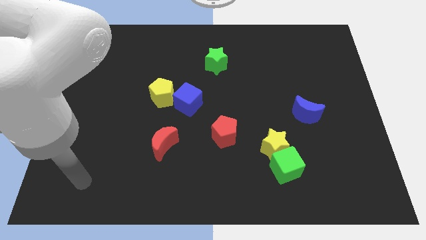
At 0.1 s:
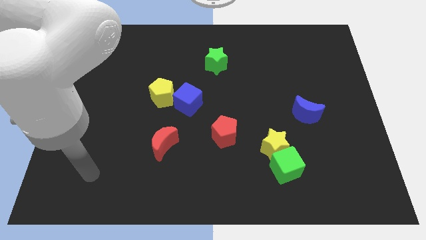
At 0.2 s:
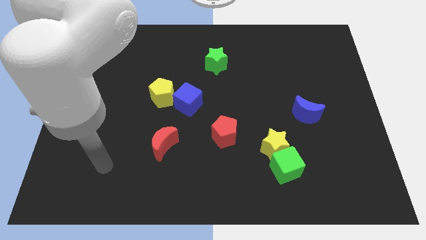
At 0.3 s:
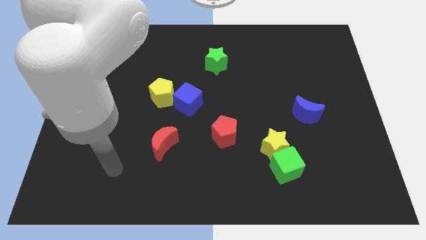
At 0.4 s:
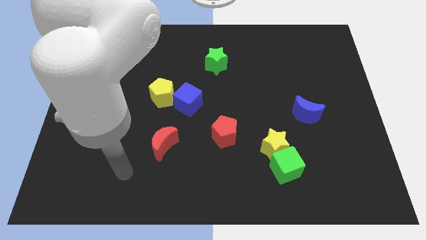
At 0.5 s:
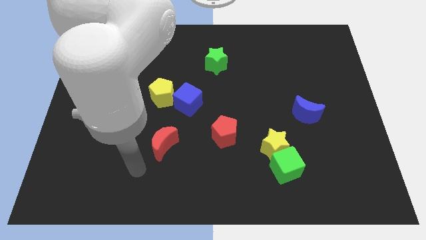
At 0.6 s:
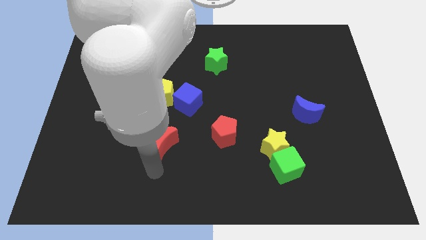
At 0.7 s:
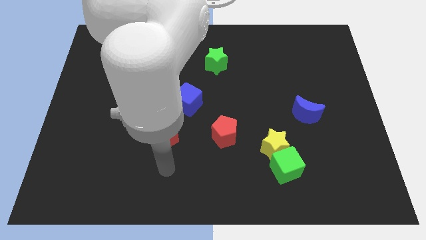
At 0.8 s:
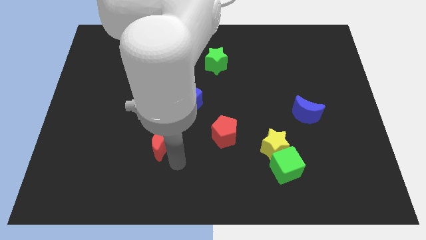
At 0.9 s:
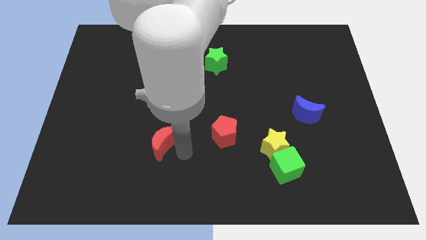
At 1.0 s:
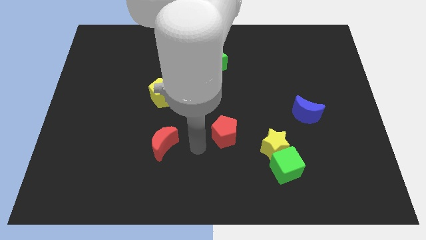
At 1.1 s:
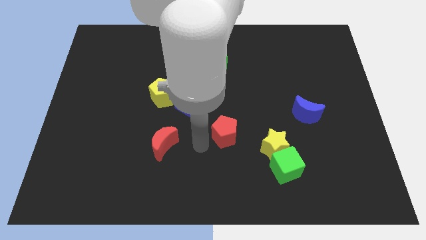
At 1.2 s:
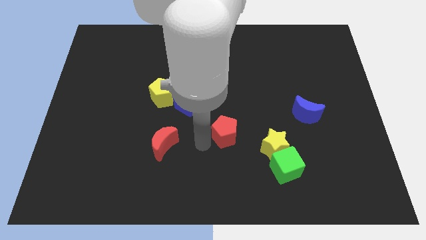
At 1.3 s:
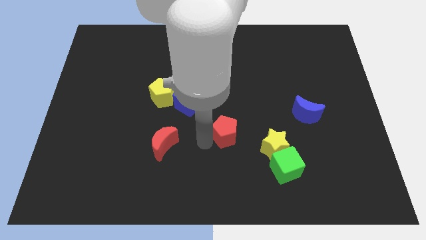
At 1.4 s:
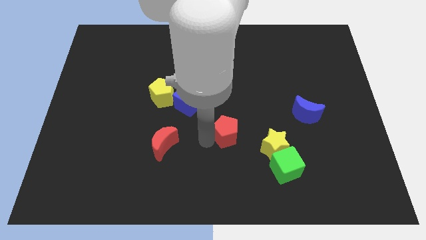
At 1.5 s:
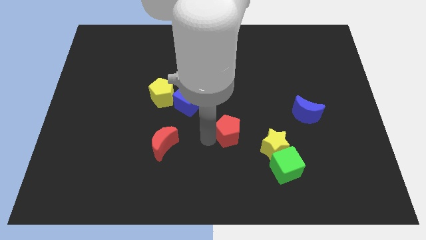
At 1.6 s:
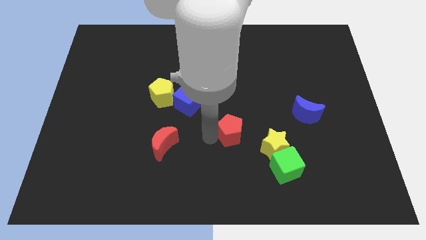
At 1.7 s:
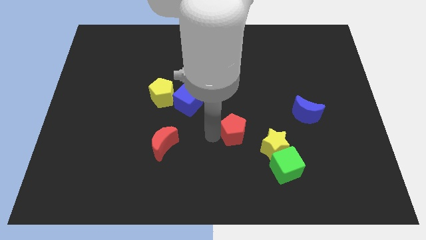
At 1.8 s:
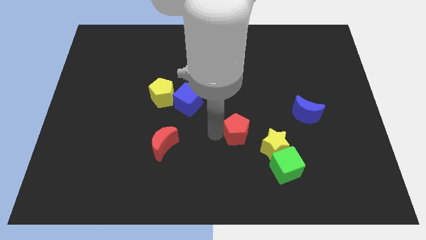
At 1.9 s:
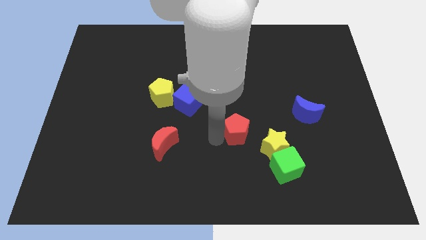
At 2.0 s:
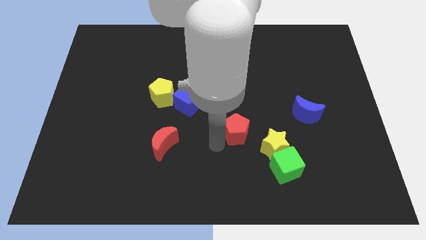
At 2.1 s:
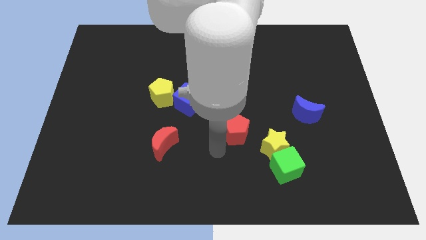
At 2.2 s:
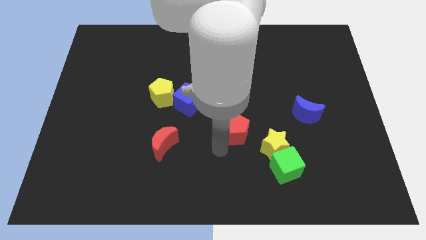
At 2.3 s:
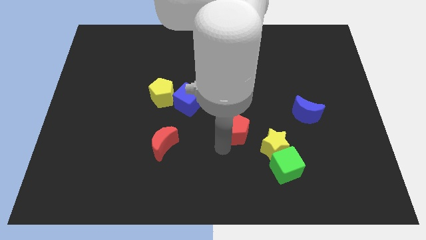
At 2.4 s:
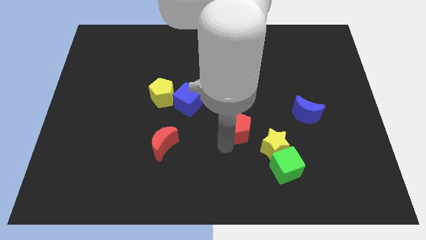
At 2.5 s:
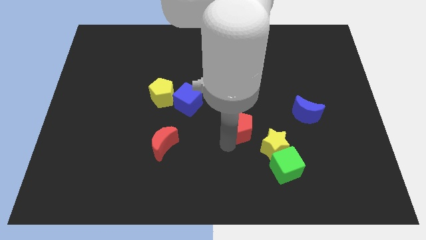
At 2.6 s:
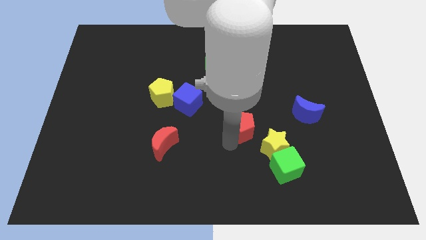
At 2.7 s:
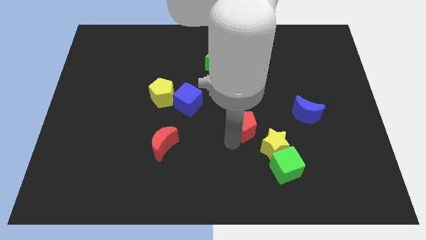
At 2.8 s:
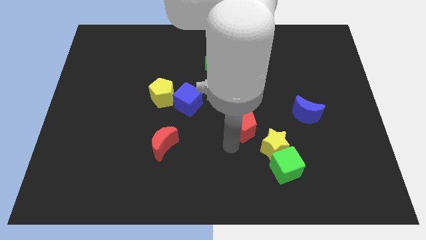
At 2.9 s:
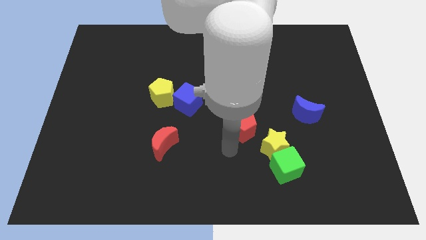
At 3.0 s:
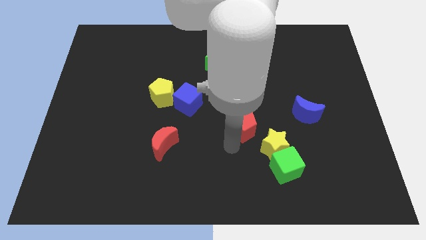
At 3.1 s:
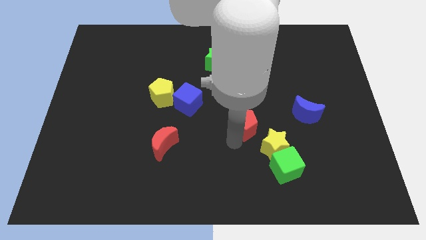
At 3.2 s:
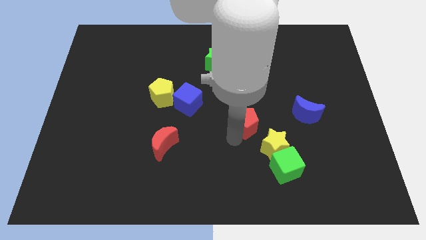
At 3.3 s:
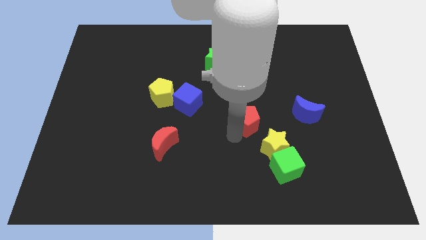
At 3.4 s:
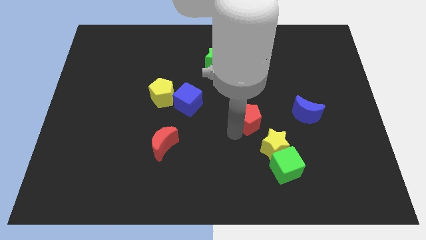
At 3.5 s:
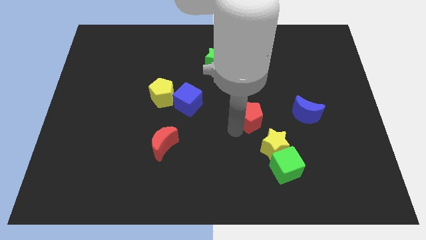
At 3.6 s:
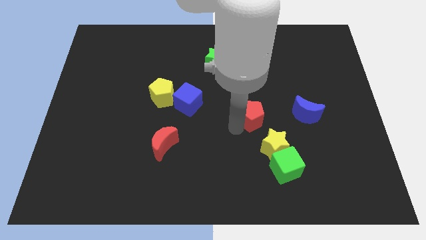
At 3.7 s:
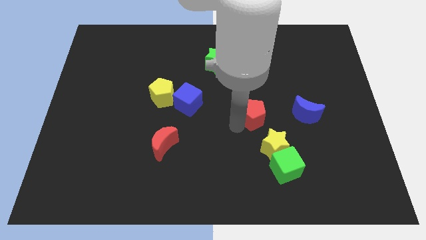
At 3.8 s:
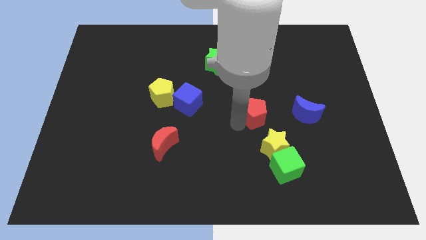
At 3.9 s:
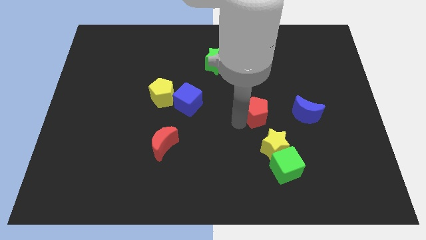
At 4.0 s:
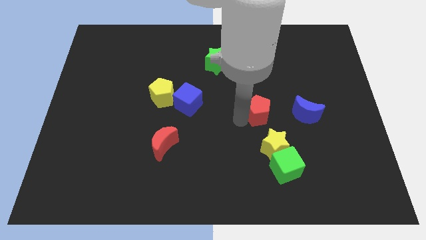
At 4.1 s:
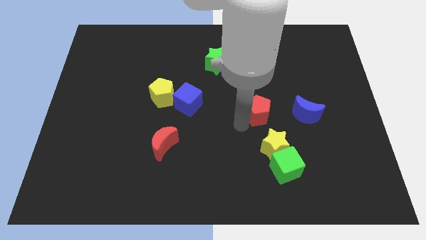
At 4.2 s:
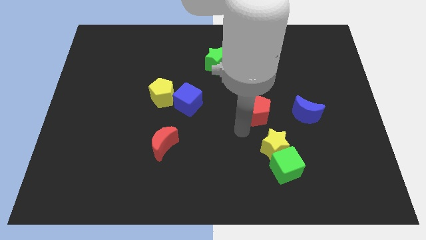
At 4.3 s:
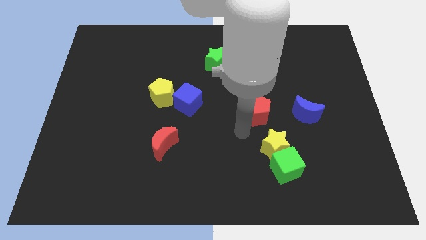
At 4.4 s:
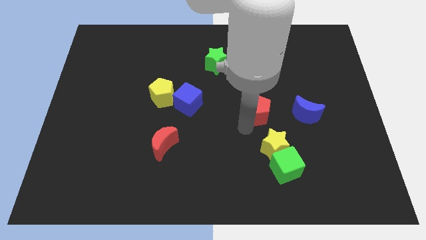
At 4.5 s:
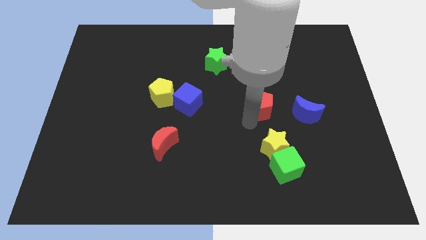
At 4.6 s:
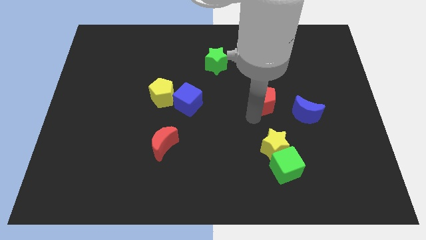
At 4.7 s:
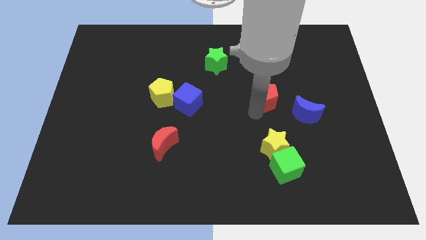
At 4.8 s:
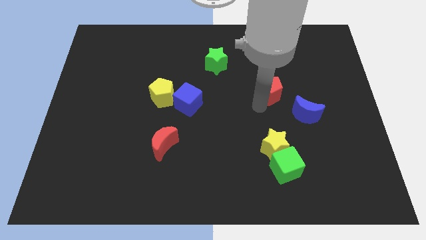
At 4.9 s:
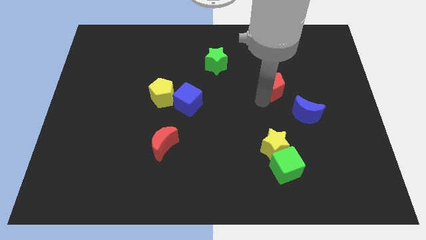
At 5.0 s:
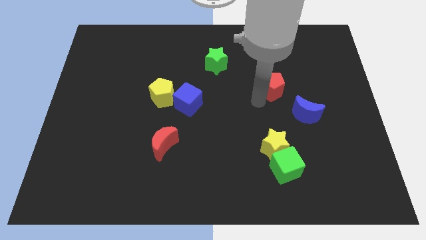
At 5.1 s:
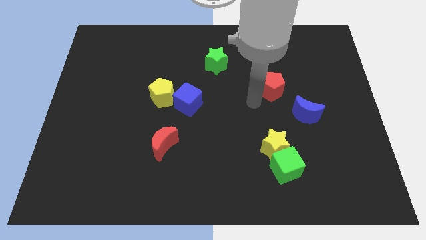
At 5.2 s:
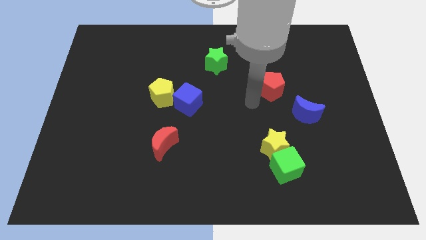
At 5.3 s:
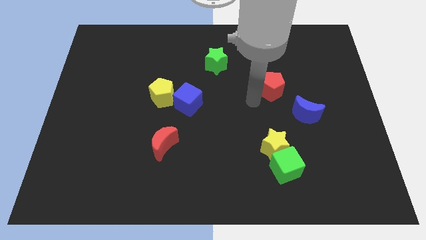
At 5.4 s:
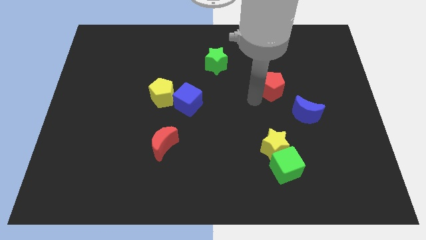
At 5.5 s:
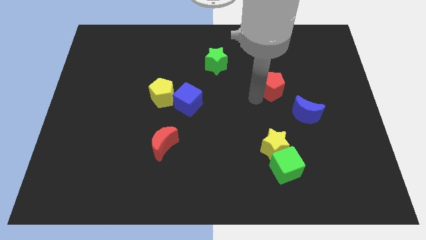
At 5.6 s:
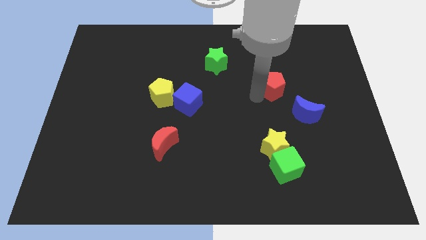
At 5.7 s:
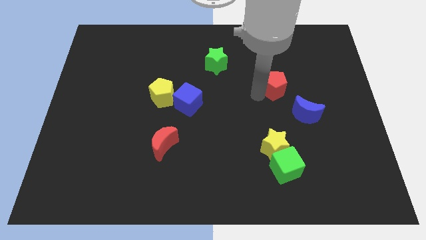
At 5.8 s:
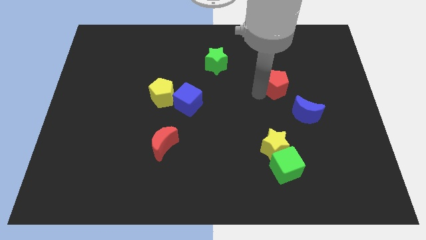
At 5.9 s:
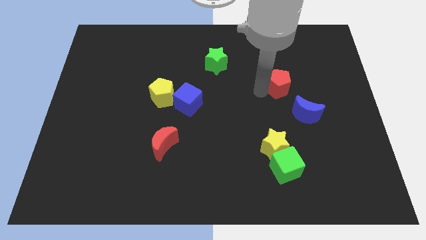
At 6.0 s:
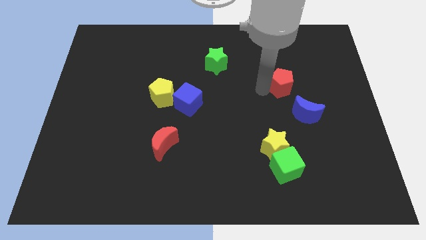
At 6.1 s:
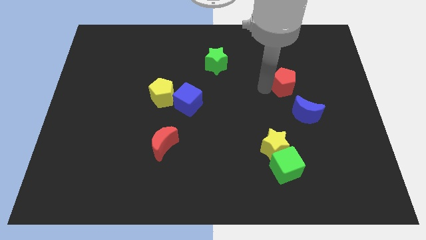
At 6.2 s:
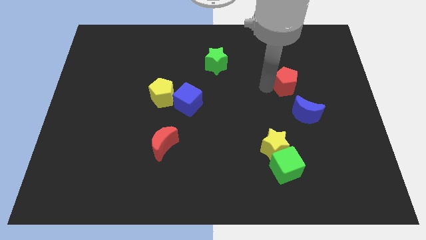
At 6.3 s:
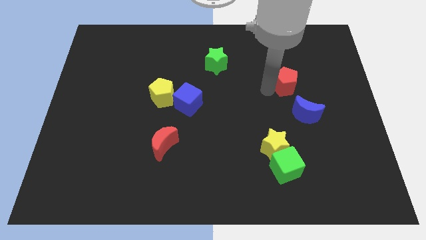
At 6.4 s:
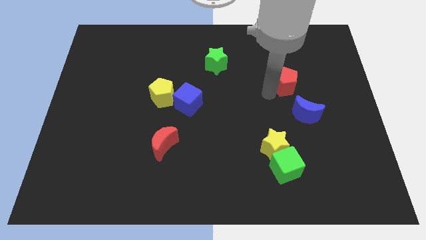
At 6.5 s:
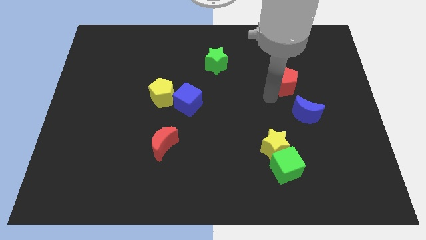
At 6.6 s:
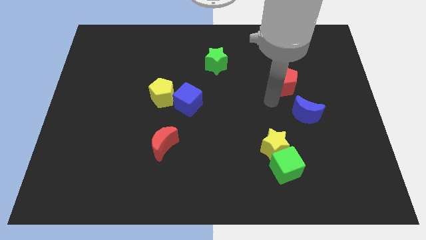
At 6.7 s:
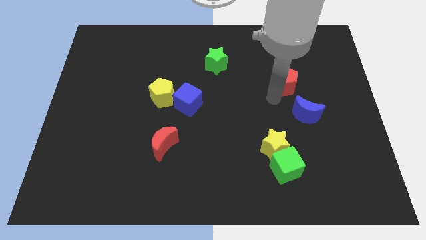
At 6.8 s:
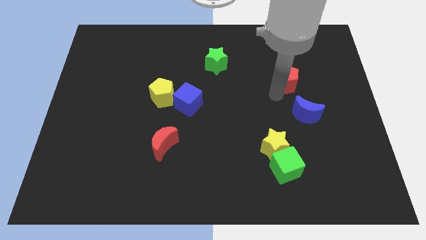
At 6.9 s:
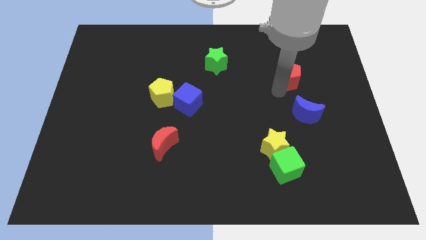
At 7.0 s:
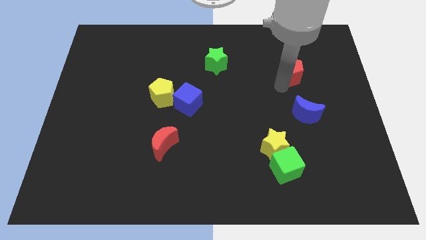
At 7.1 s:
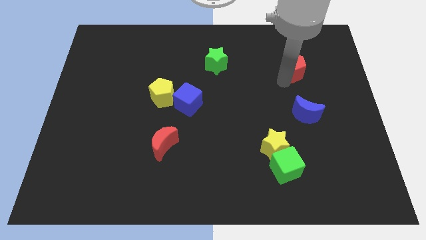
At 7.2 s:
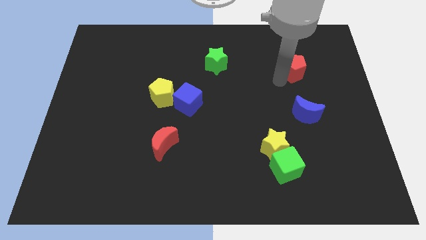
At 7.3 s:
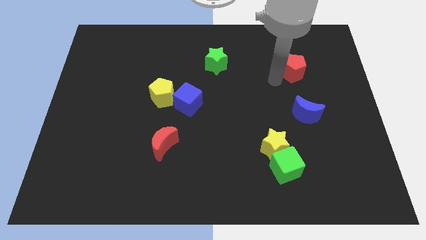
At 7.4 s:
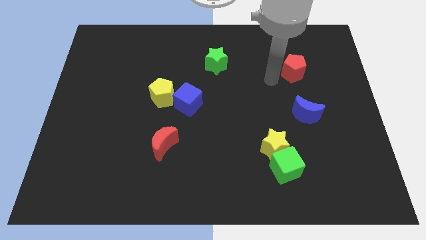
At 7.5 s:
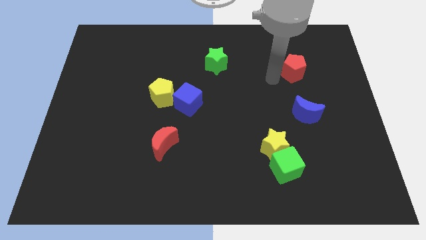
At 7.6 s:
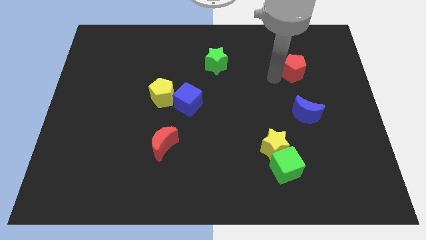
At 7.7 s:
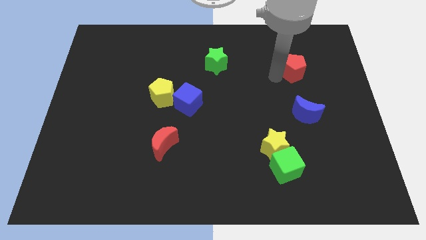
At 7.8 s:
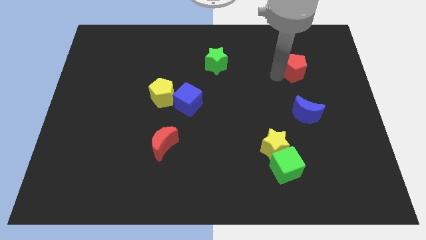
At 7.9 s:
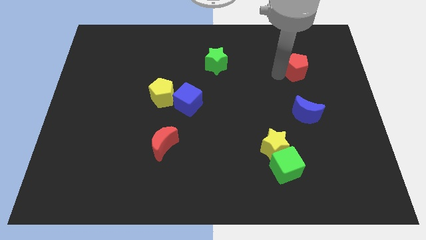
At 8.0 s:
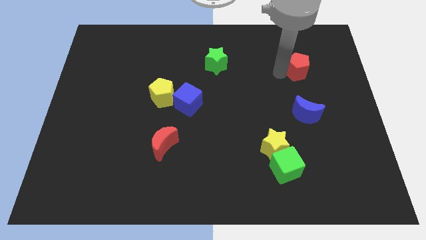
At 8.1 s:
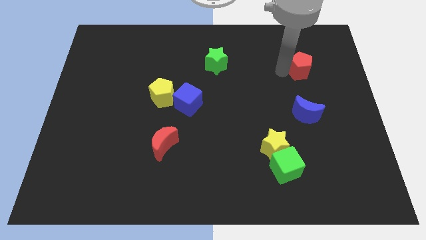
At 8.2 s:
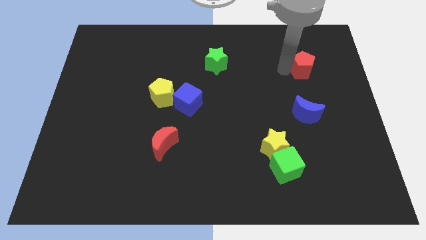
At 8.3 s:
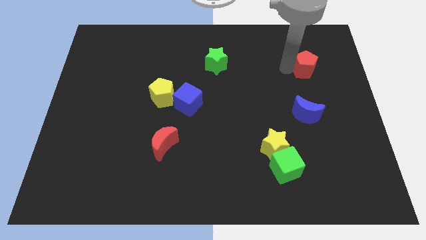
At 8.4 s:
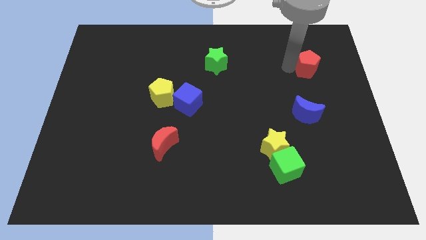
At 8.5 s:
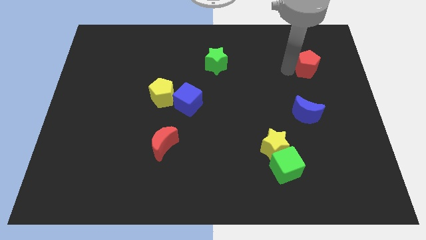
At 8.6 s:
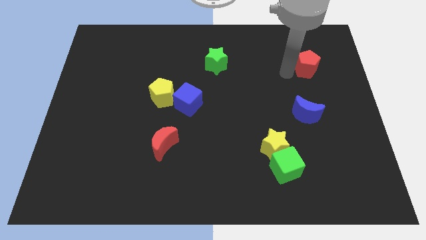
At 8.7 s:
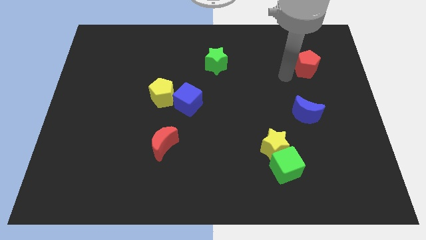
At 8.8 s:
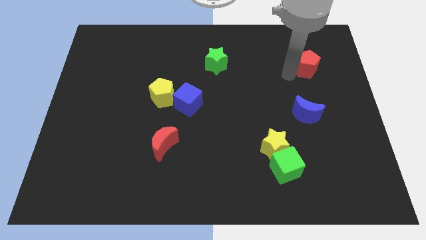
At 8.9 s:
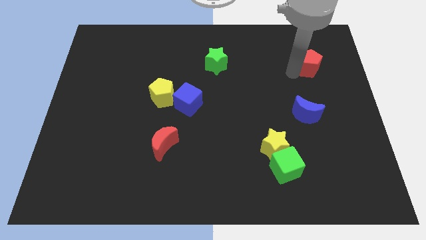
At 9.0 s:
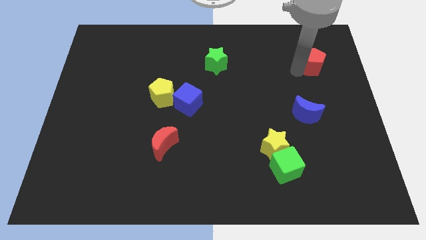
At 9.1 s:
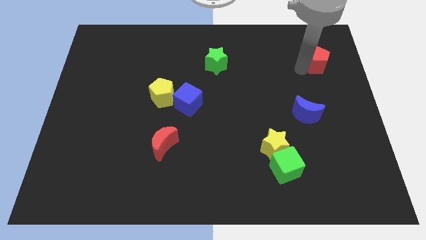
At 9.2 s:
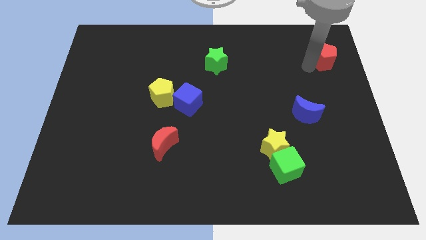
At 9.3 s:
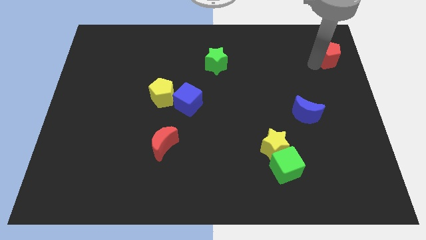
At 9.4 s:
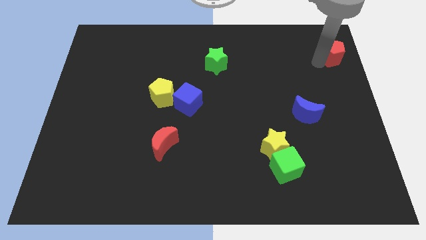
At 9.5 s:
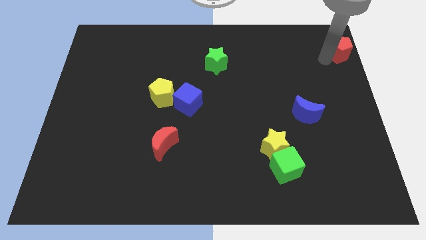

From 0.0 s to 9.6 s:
push the red pentagon to the top right of the board
